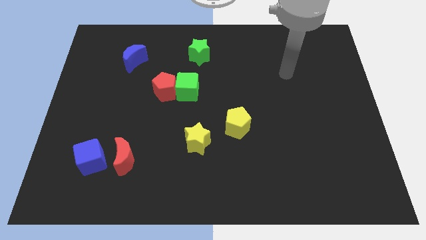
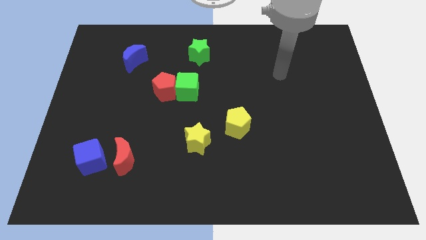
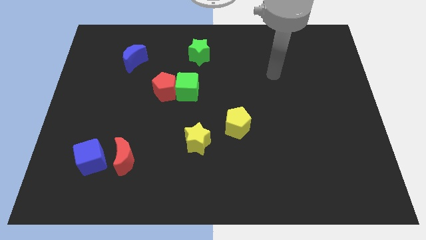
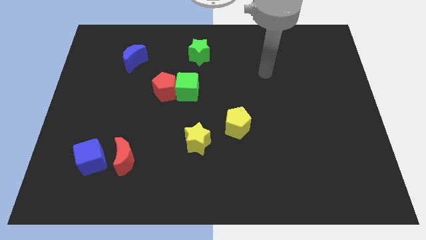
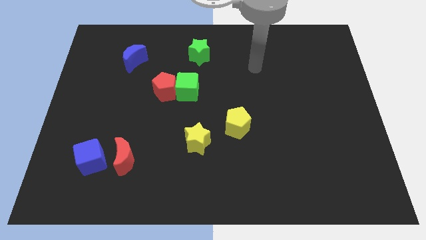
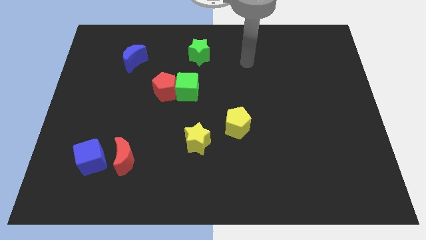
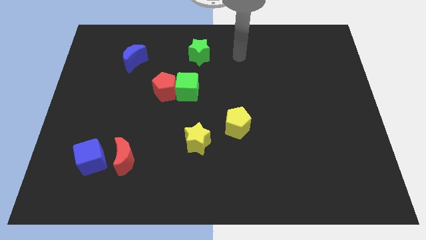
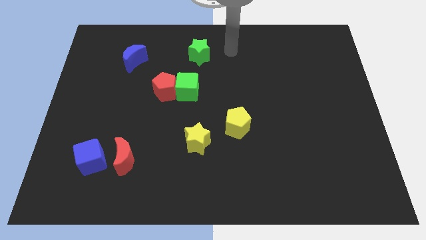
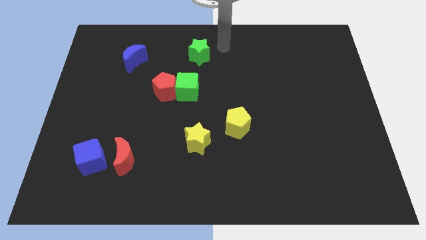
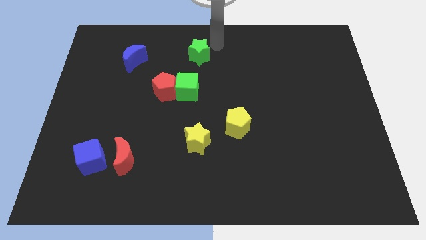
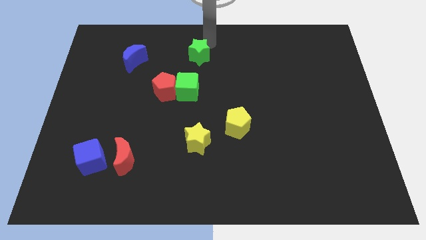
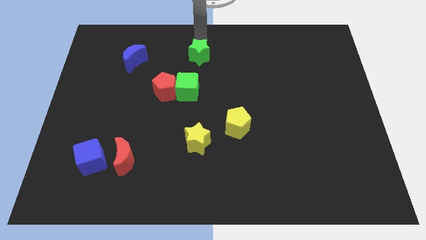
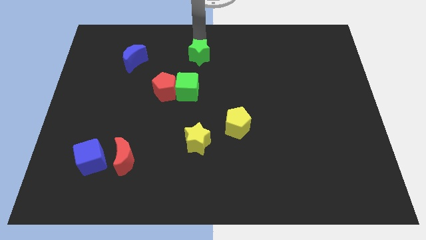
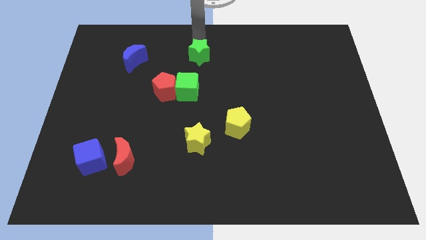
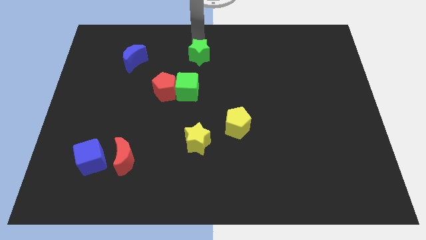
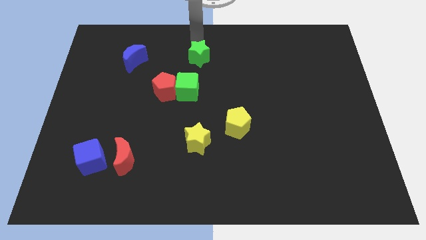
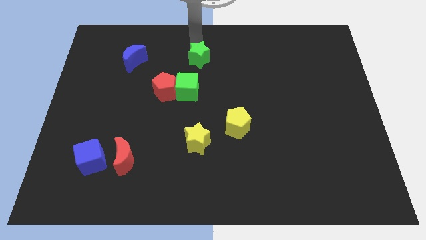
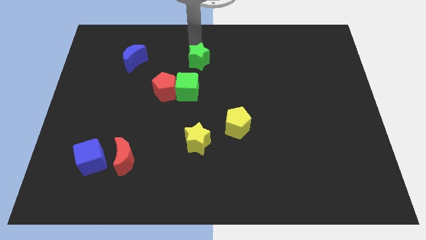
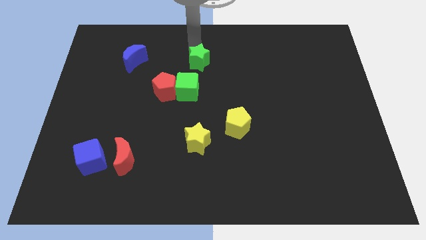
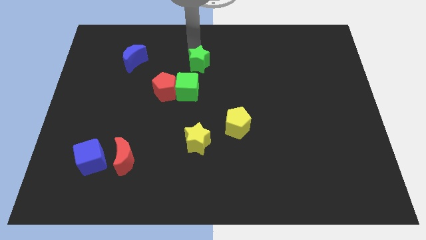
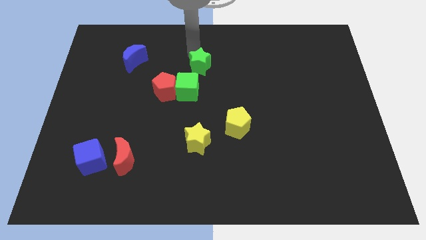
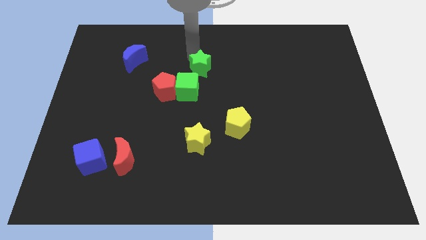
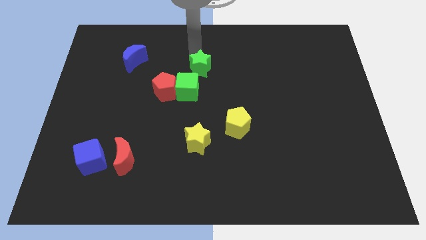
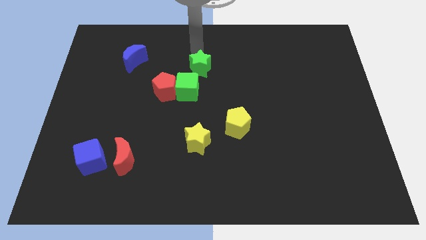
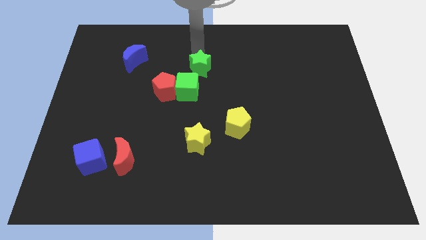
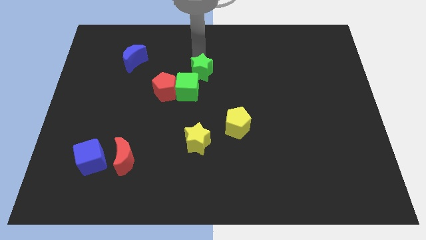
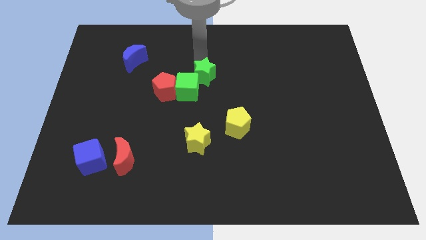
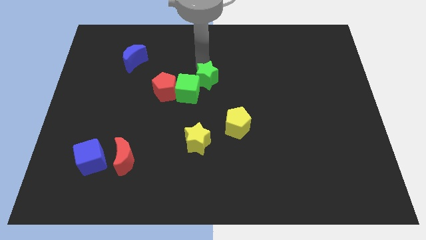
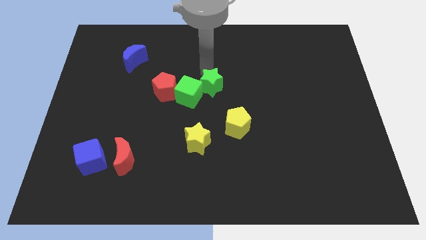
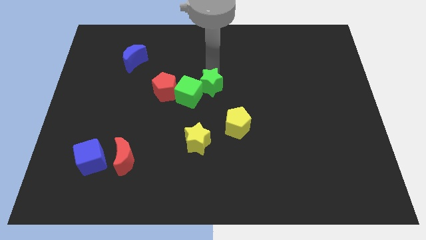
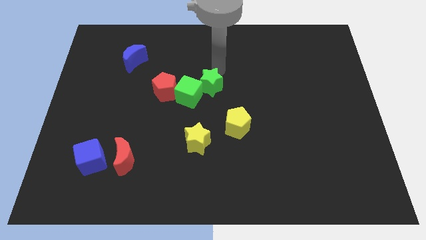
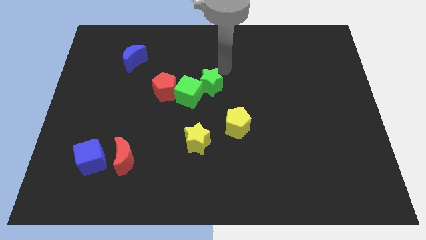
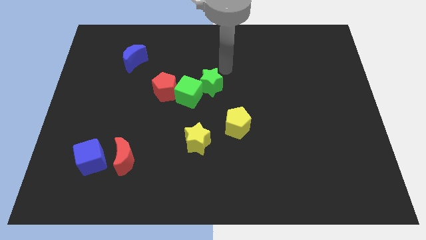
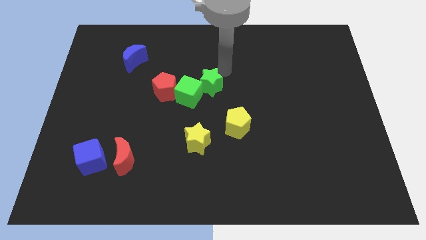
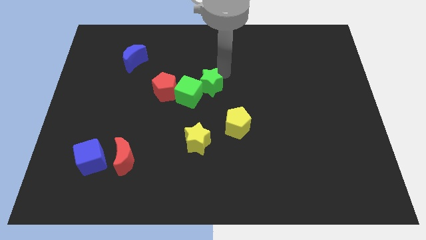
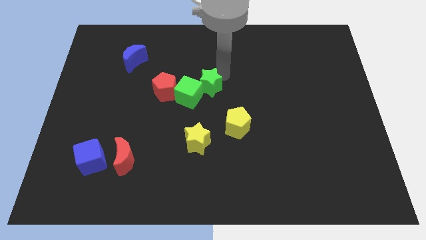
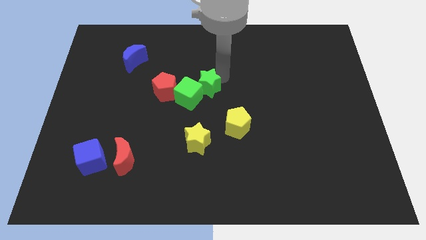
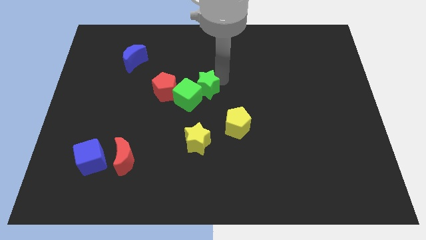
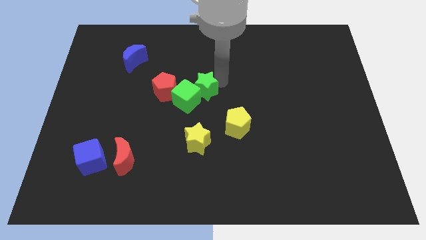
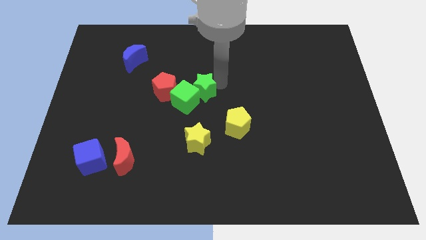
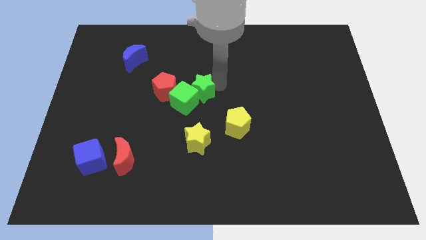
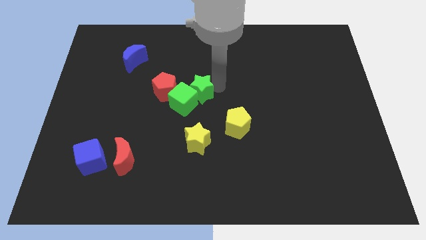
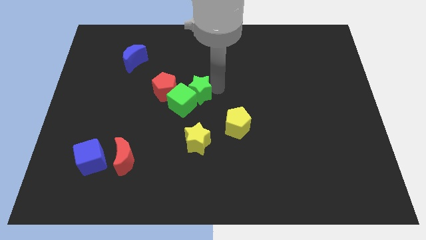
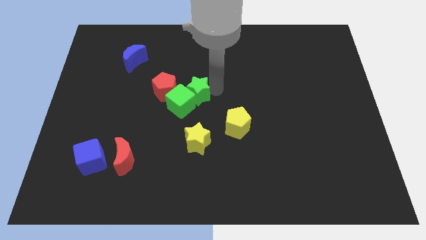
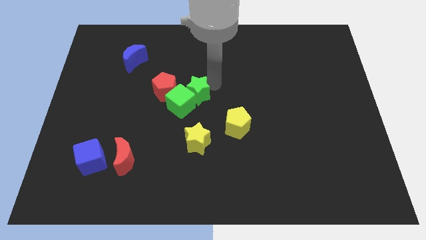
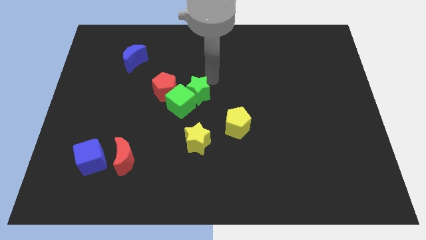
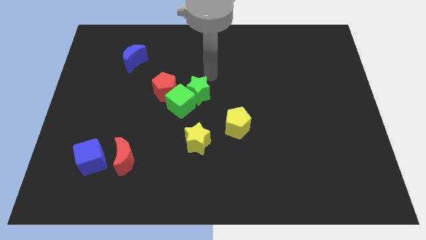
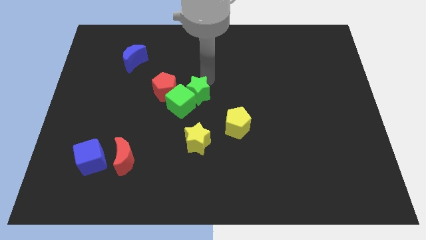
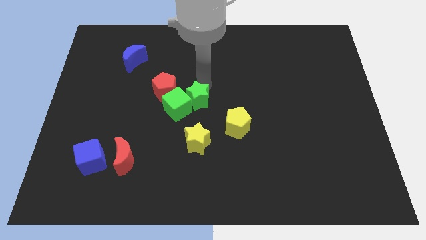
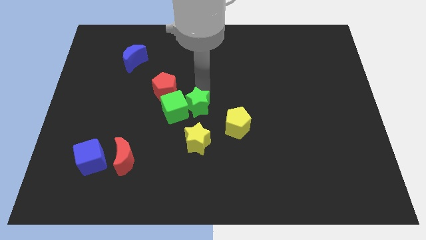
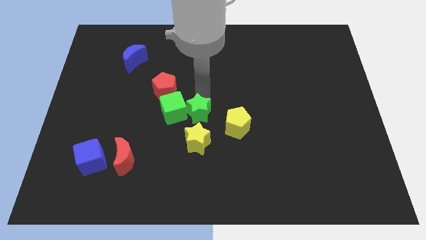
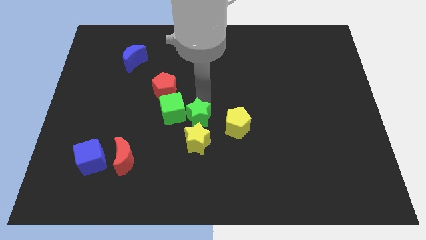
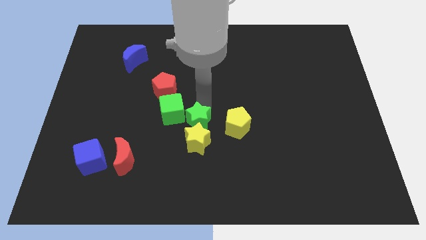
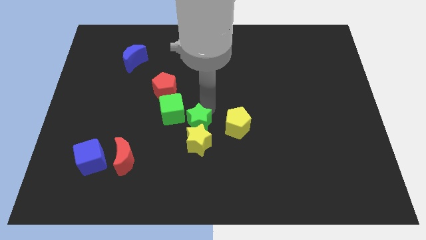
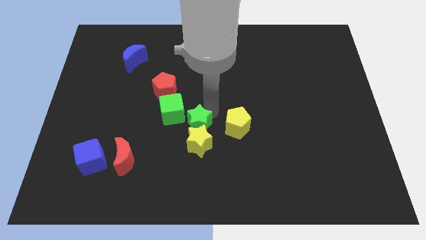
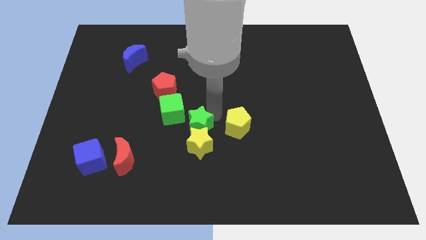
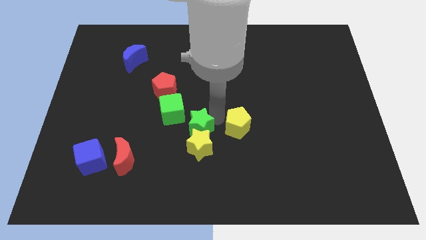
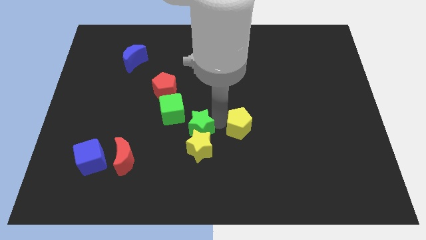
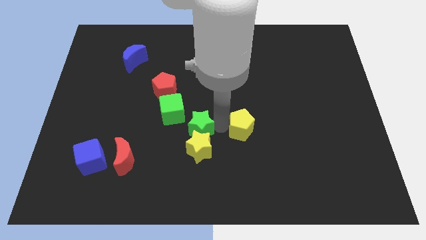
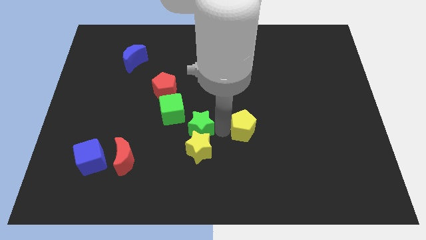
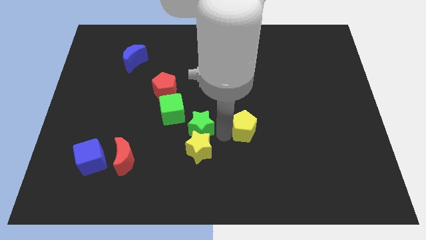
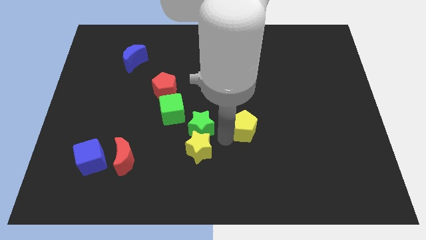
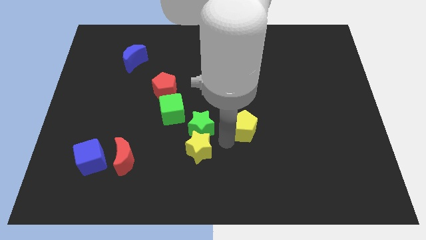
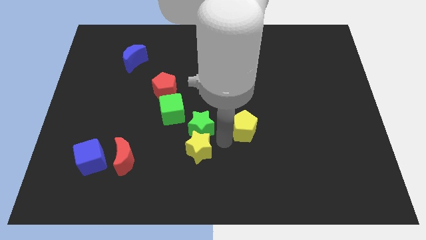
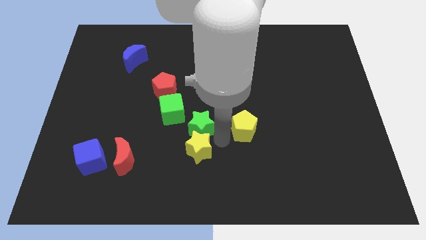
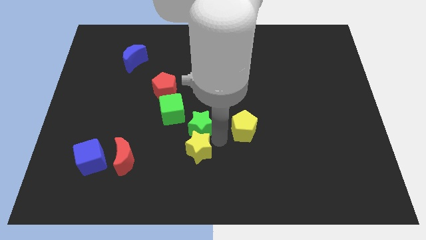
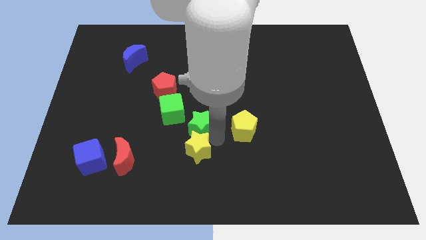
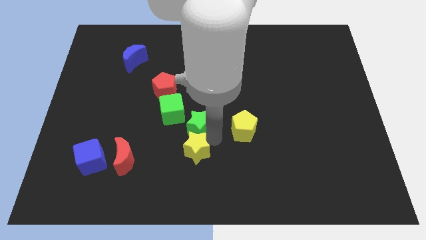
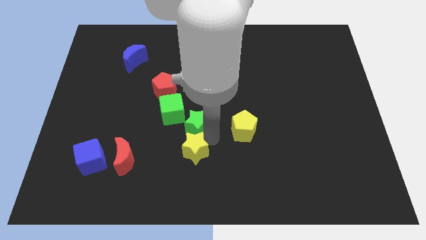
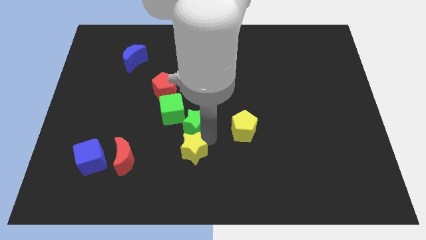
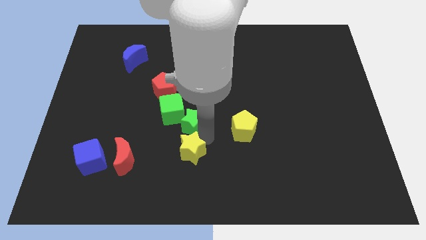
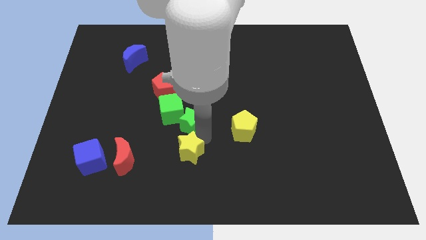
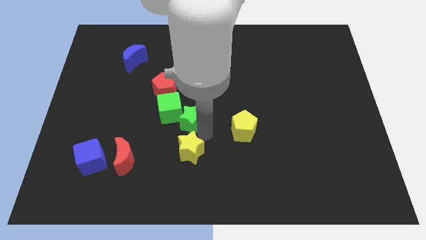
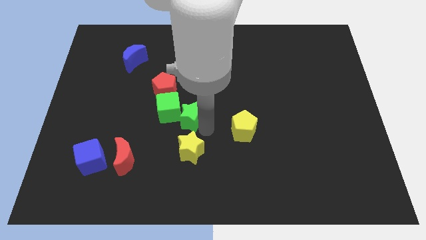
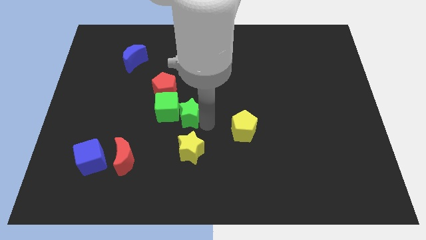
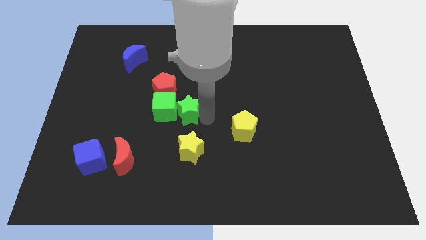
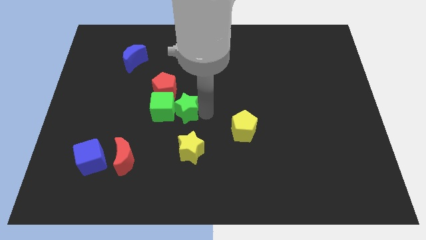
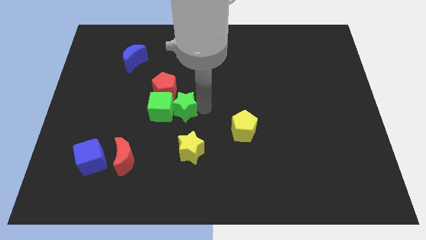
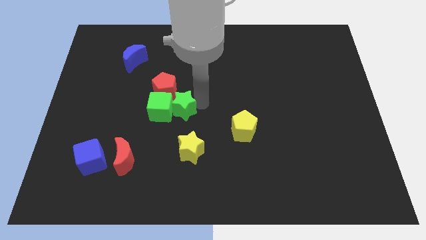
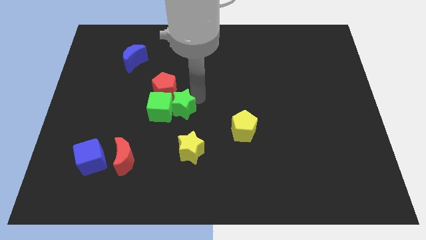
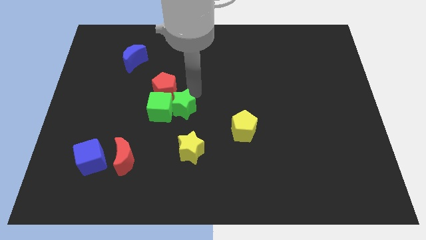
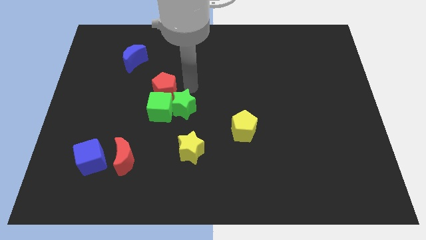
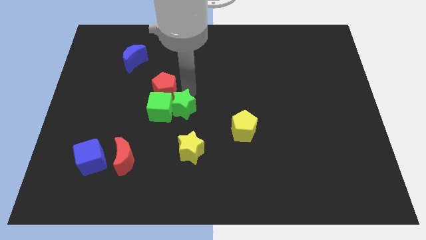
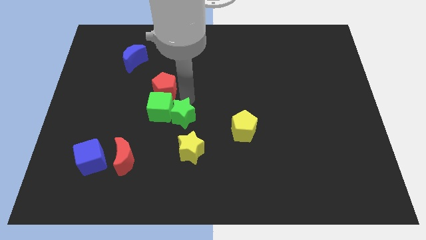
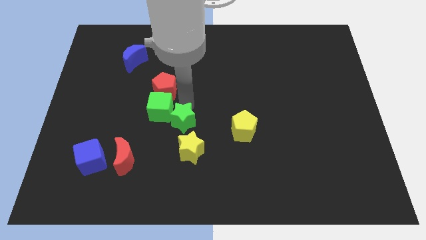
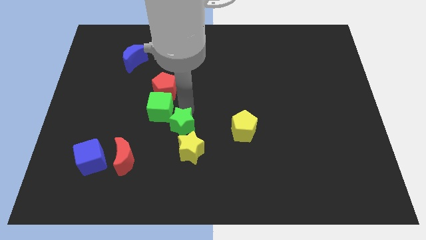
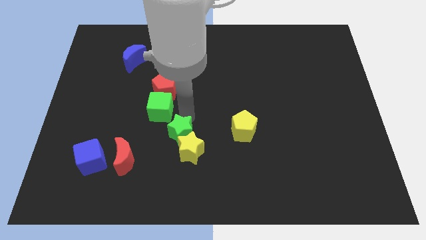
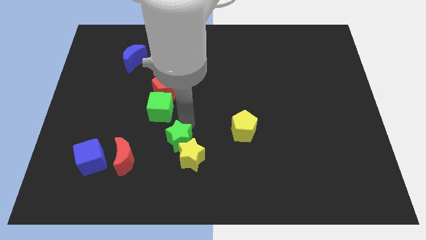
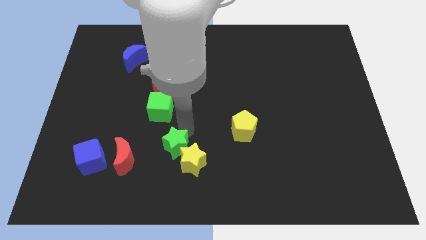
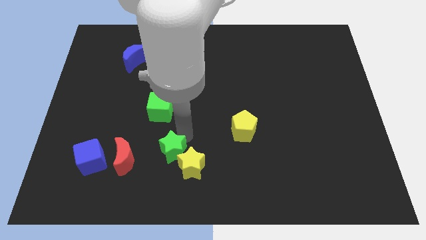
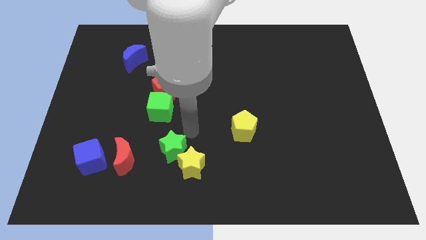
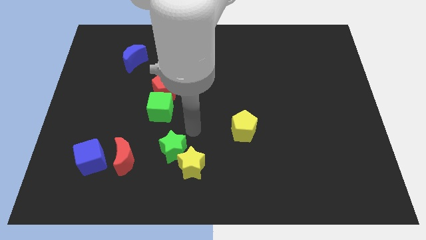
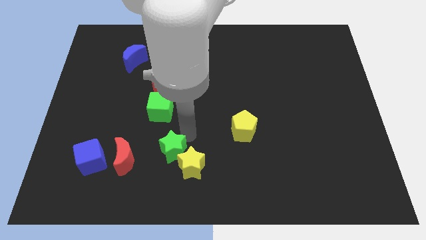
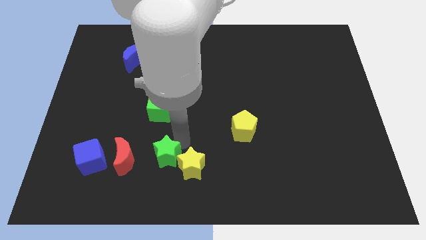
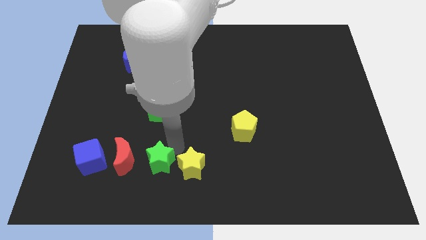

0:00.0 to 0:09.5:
put the green star diagonally down and to the right of the red moon
